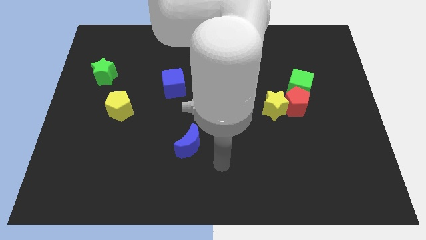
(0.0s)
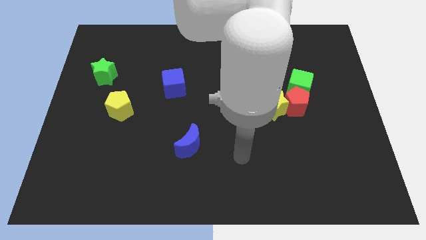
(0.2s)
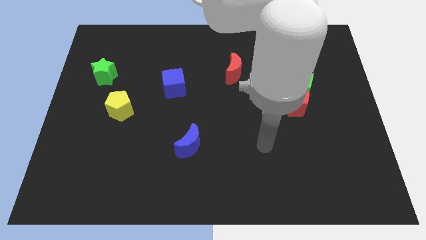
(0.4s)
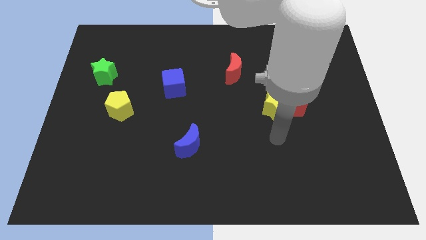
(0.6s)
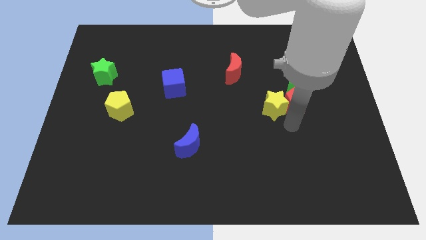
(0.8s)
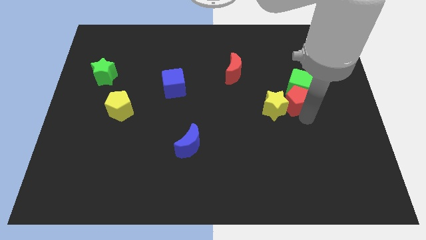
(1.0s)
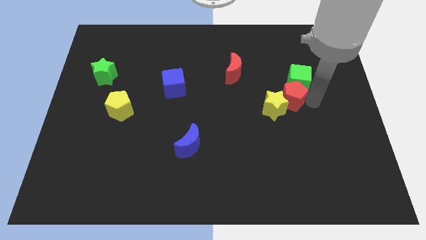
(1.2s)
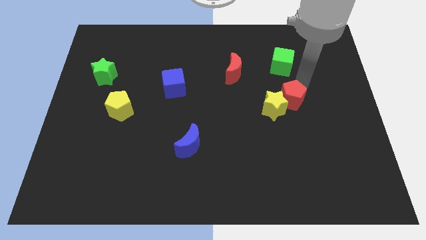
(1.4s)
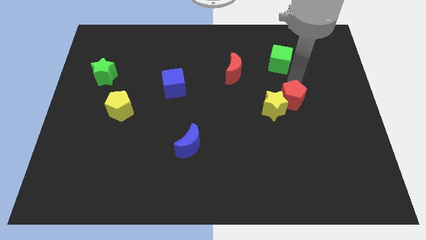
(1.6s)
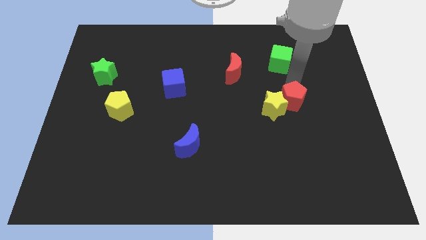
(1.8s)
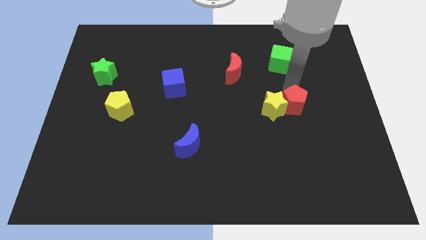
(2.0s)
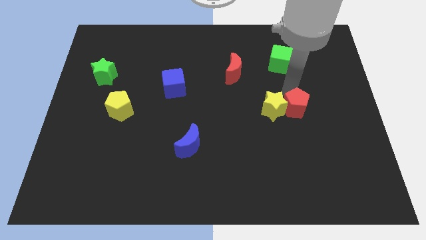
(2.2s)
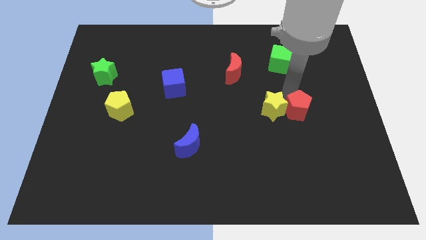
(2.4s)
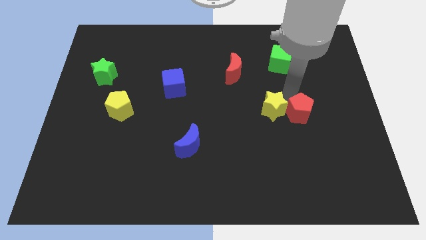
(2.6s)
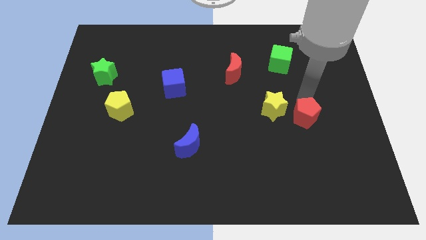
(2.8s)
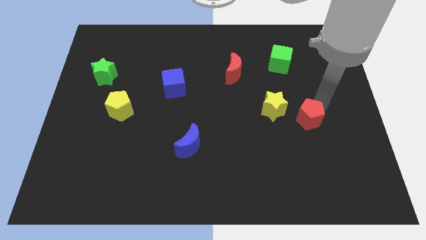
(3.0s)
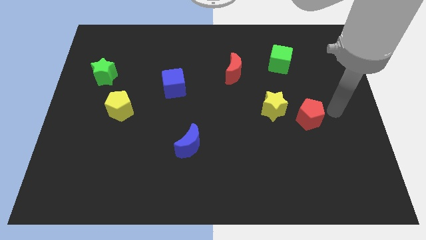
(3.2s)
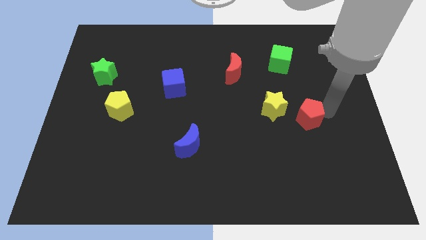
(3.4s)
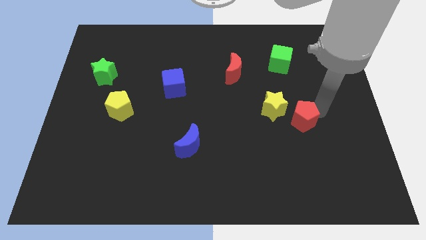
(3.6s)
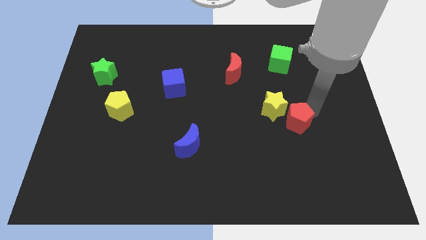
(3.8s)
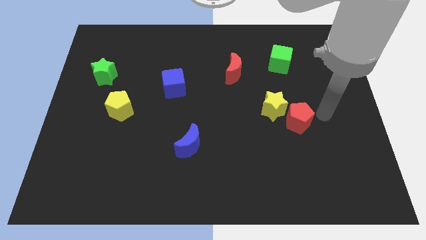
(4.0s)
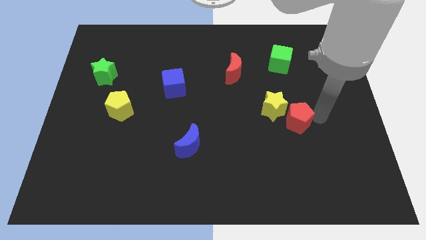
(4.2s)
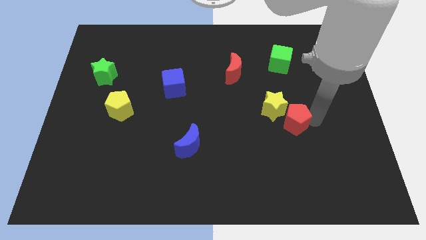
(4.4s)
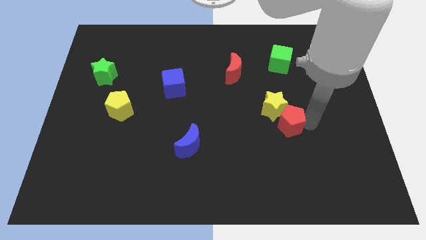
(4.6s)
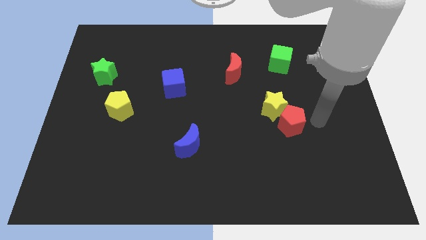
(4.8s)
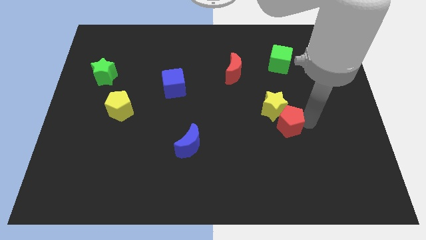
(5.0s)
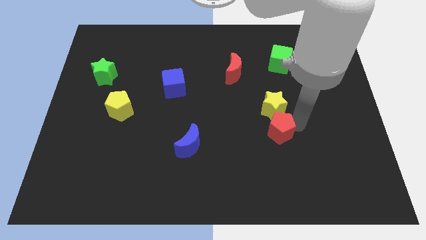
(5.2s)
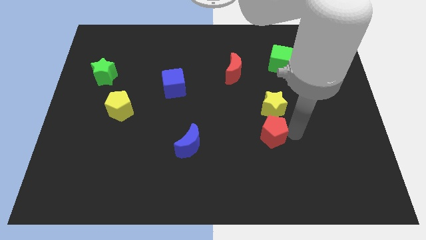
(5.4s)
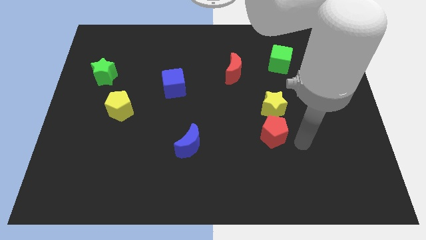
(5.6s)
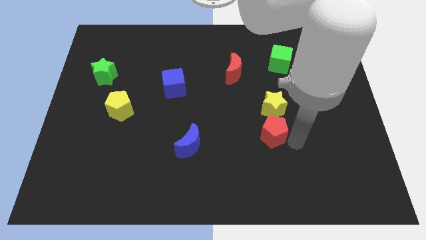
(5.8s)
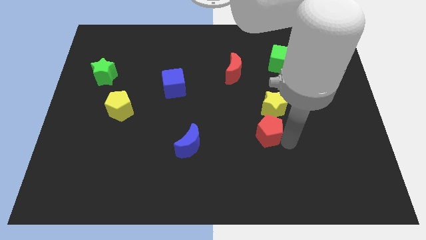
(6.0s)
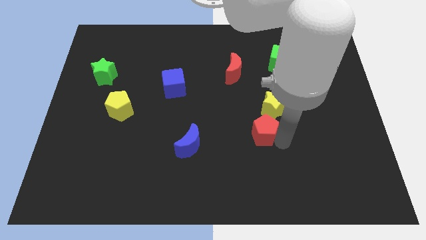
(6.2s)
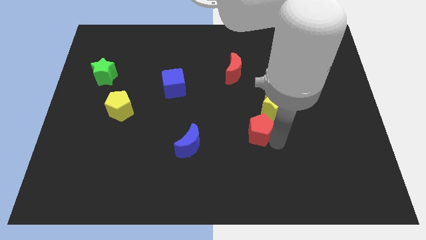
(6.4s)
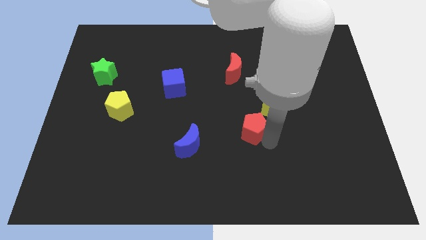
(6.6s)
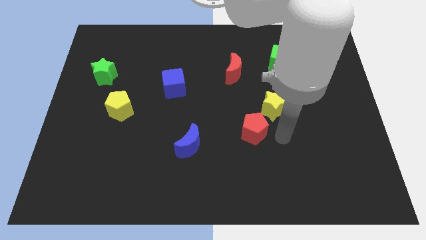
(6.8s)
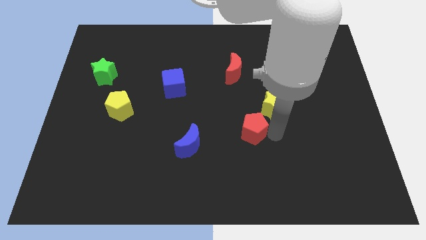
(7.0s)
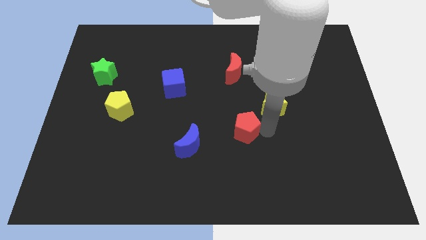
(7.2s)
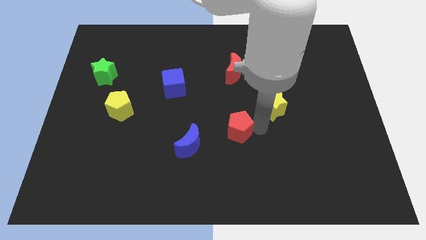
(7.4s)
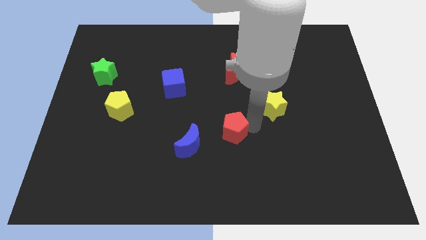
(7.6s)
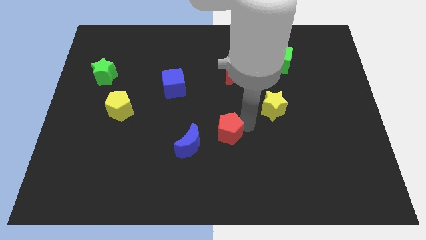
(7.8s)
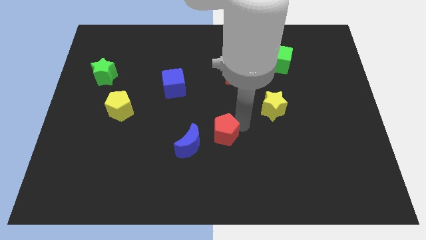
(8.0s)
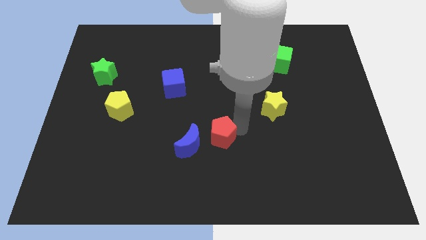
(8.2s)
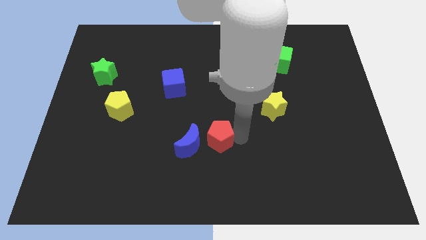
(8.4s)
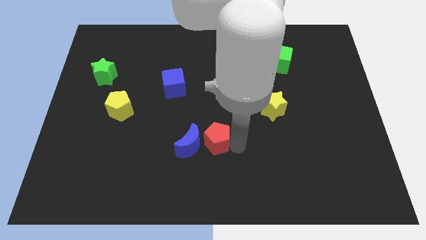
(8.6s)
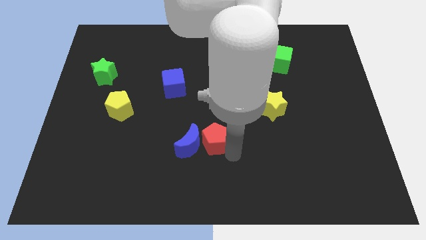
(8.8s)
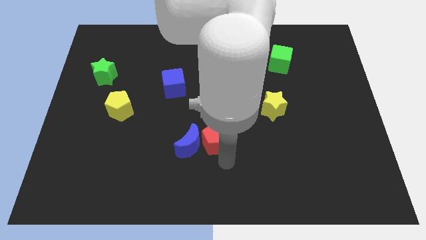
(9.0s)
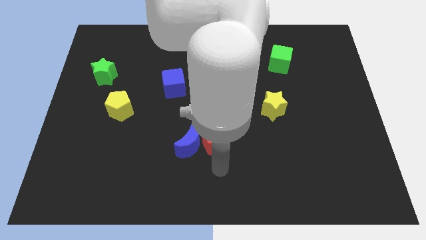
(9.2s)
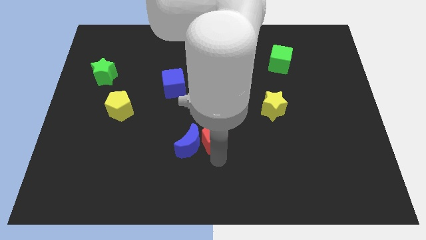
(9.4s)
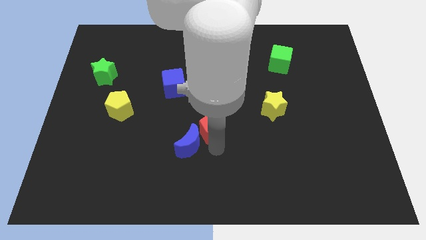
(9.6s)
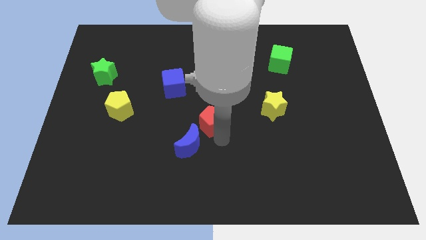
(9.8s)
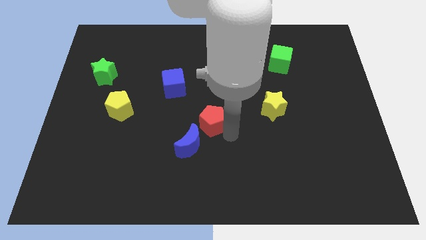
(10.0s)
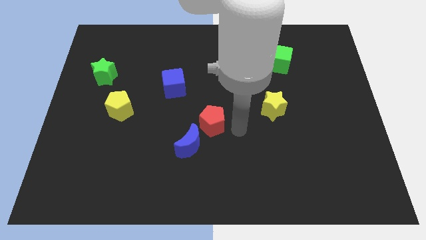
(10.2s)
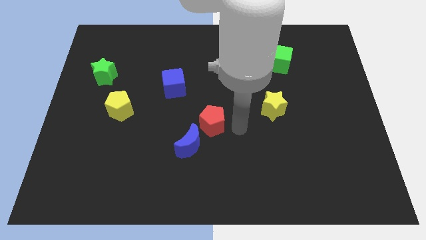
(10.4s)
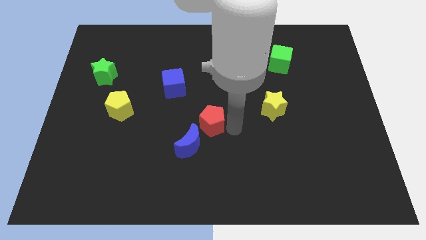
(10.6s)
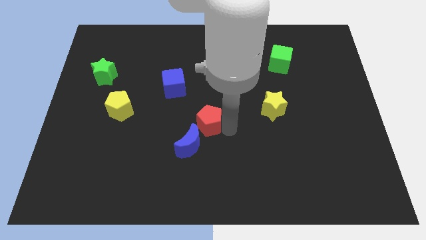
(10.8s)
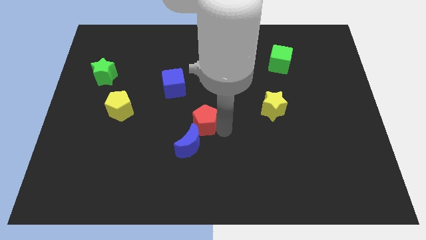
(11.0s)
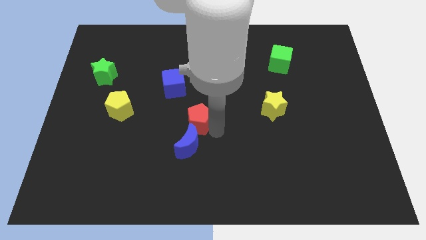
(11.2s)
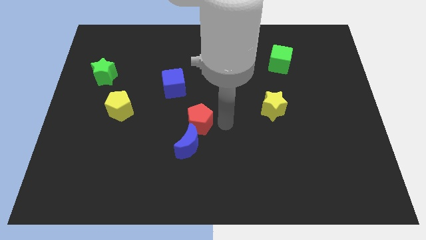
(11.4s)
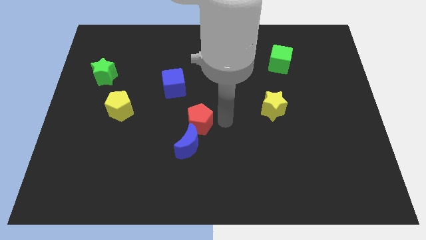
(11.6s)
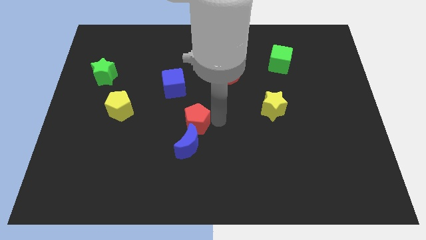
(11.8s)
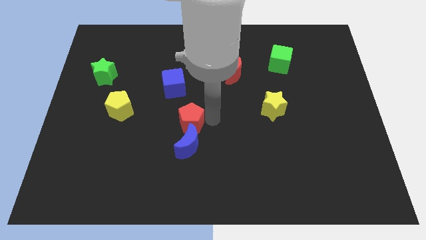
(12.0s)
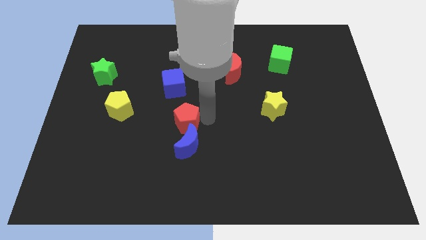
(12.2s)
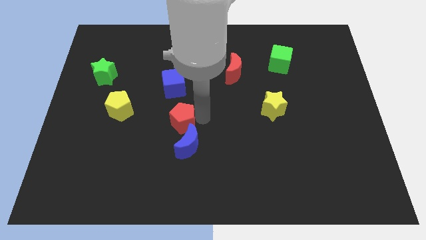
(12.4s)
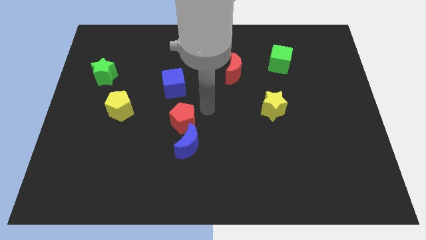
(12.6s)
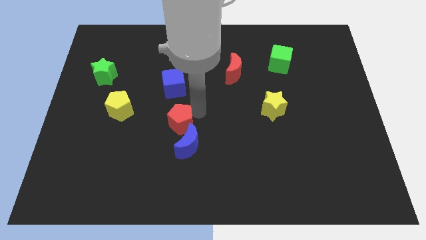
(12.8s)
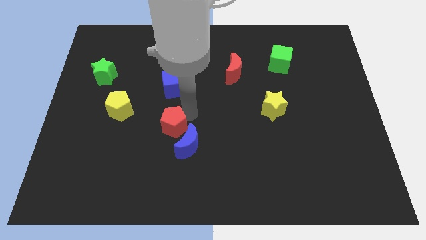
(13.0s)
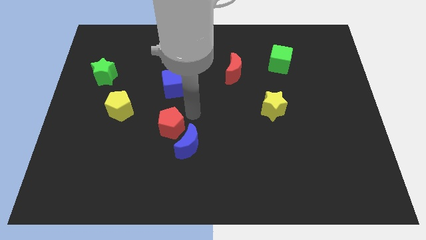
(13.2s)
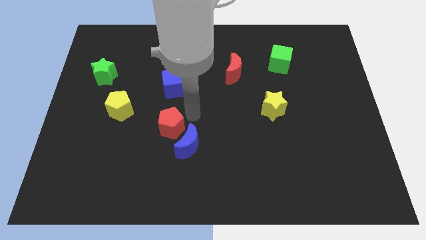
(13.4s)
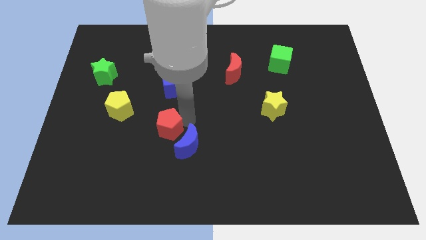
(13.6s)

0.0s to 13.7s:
slide the red pentagon left of the blue moon

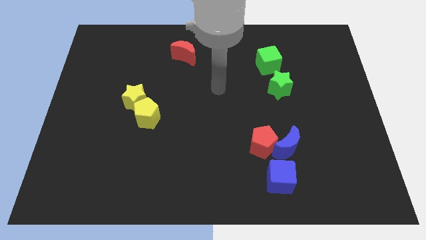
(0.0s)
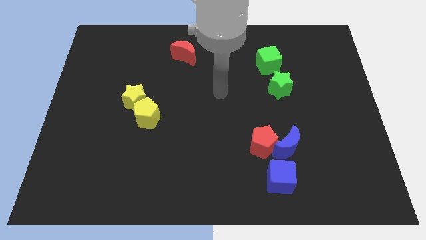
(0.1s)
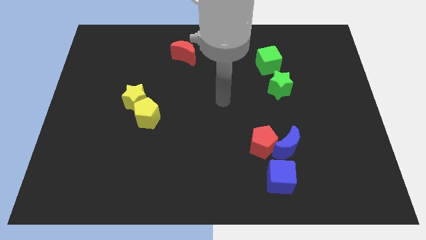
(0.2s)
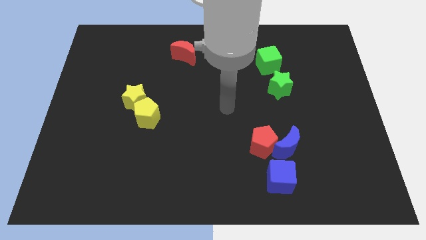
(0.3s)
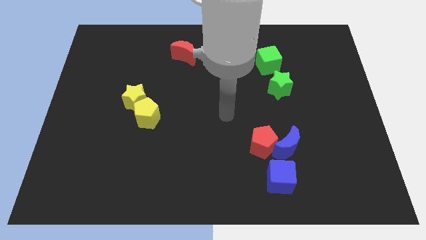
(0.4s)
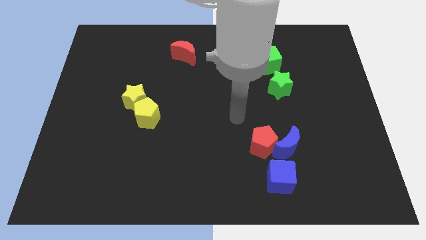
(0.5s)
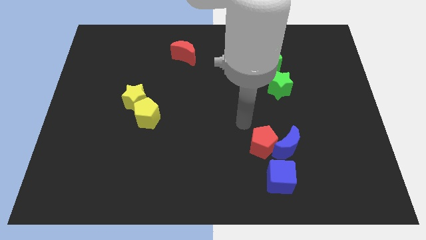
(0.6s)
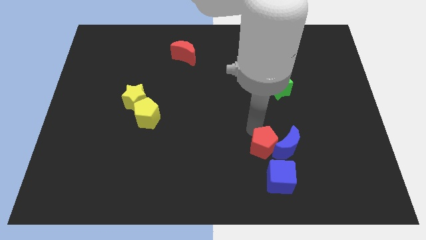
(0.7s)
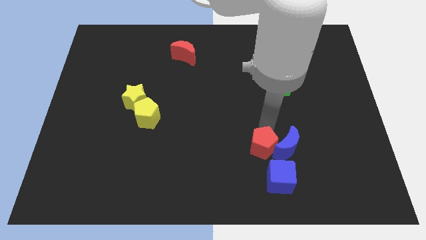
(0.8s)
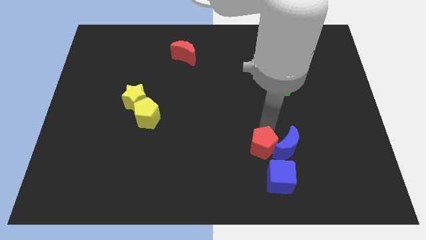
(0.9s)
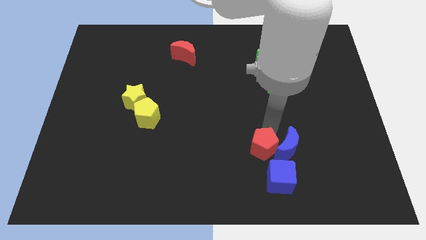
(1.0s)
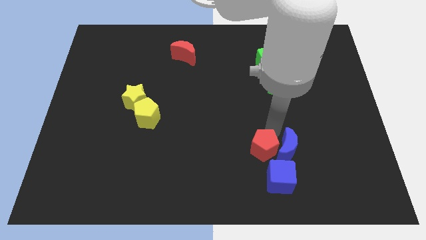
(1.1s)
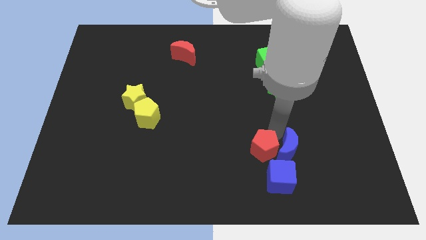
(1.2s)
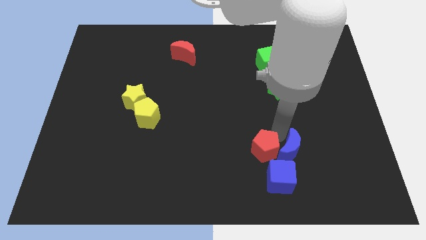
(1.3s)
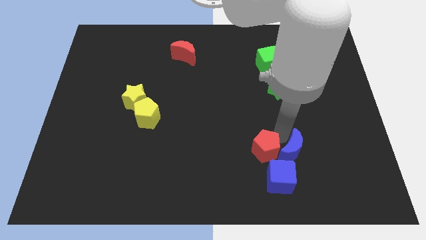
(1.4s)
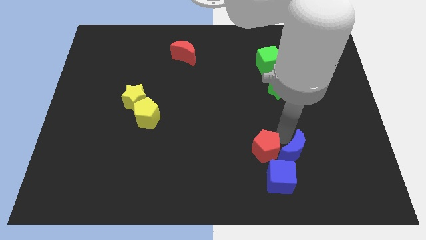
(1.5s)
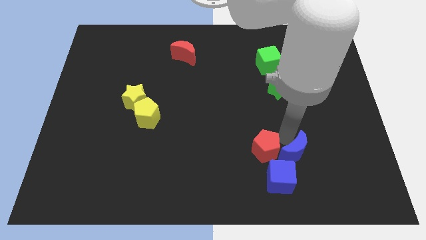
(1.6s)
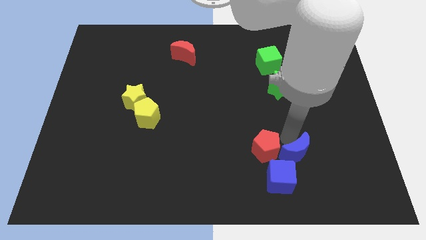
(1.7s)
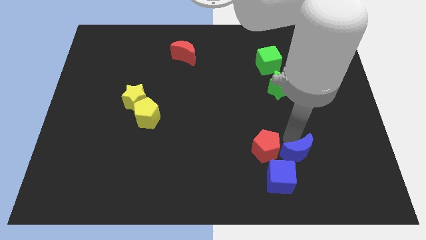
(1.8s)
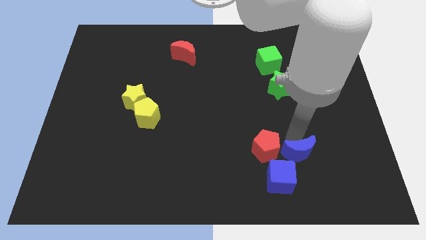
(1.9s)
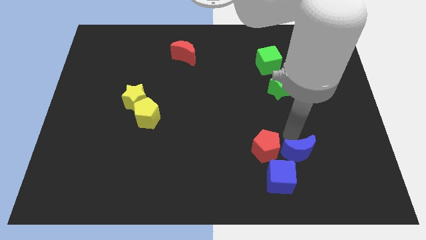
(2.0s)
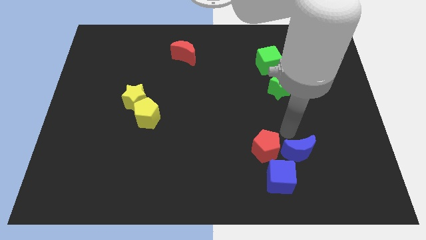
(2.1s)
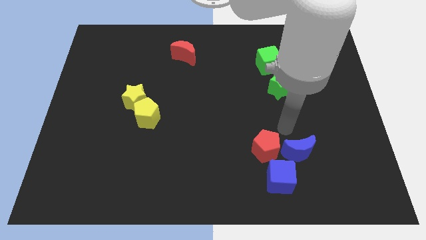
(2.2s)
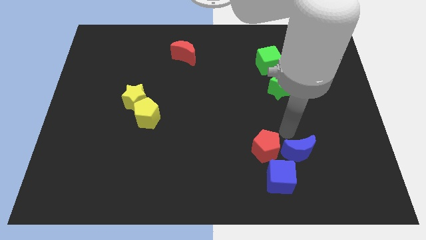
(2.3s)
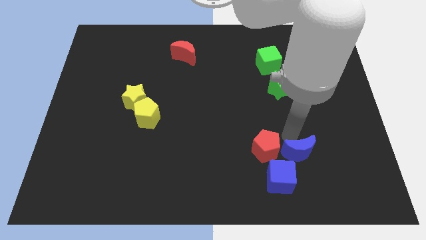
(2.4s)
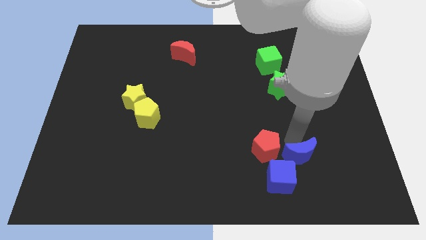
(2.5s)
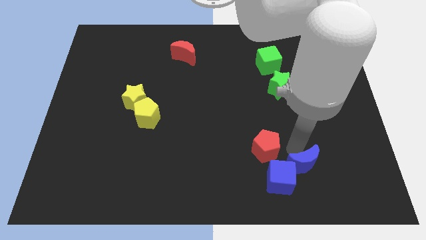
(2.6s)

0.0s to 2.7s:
push the blue moon just right of the blue cube
